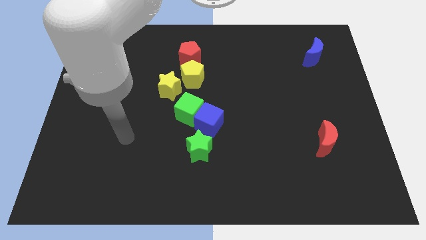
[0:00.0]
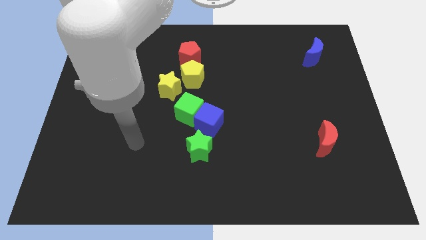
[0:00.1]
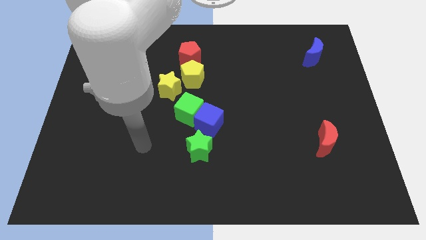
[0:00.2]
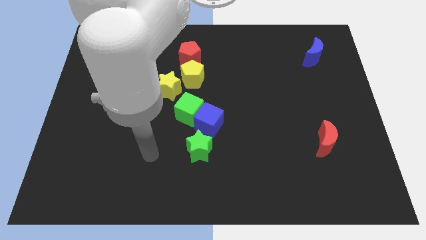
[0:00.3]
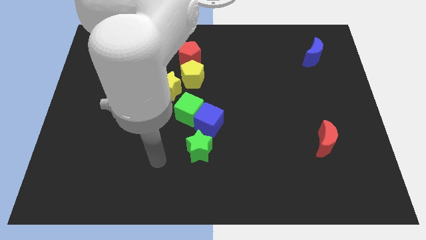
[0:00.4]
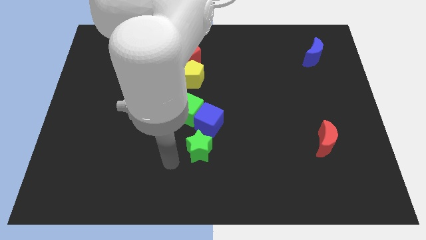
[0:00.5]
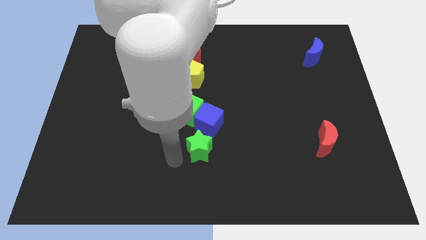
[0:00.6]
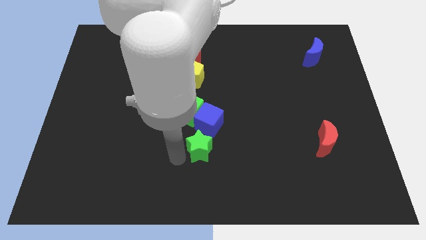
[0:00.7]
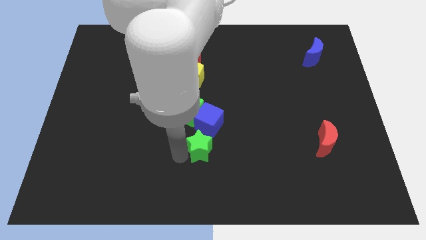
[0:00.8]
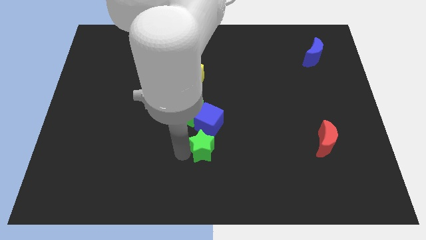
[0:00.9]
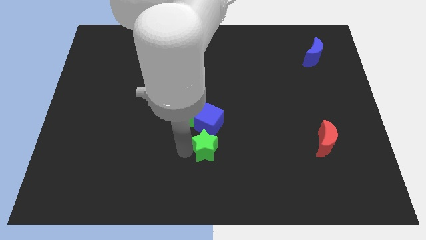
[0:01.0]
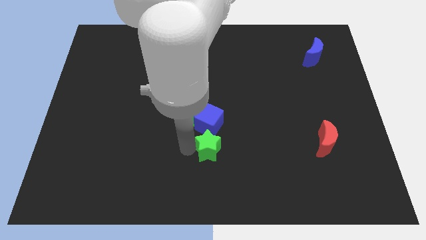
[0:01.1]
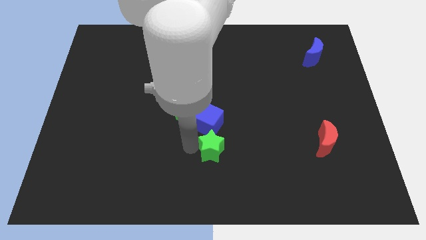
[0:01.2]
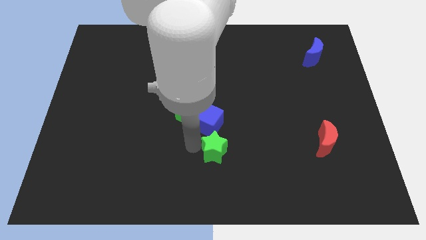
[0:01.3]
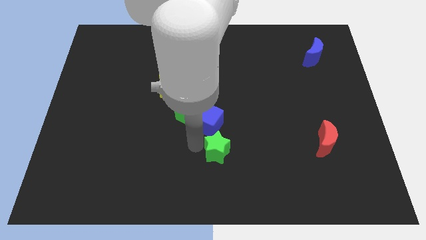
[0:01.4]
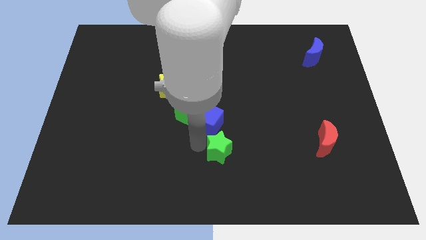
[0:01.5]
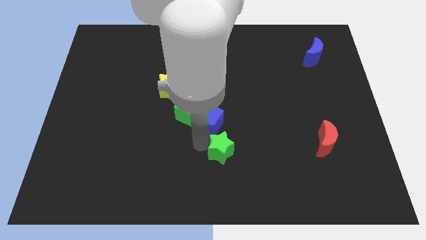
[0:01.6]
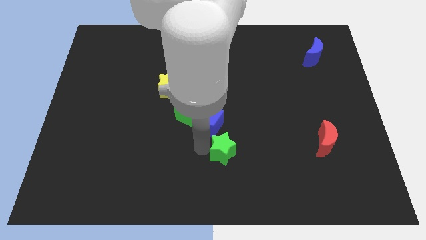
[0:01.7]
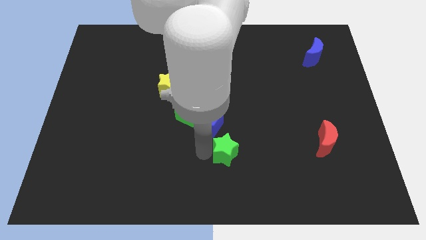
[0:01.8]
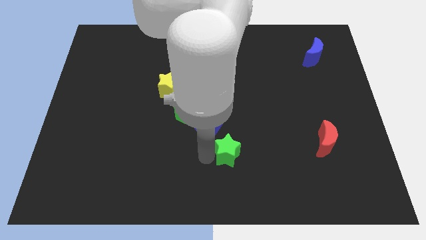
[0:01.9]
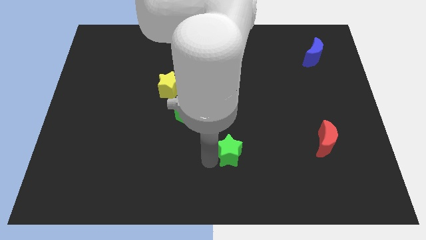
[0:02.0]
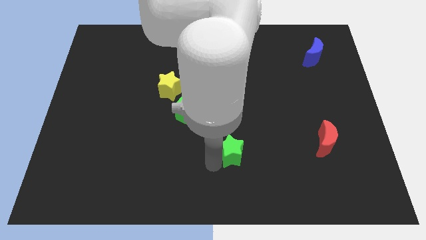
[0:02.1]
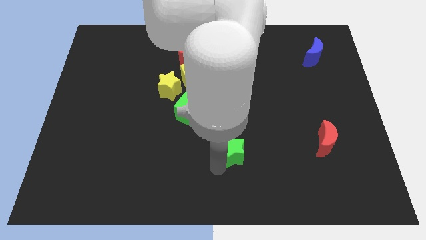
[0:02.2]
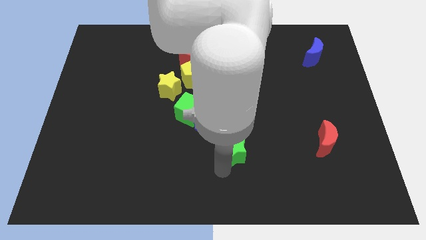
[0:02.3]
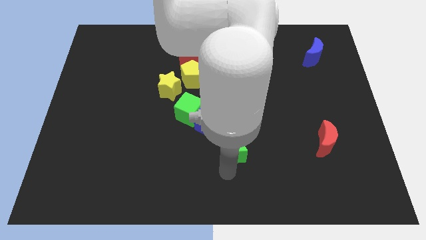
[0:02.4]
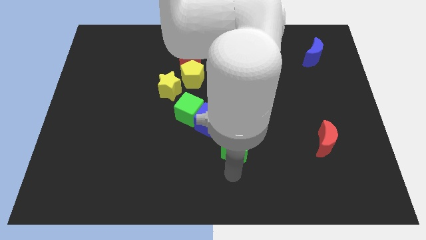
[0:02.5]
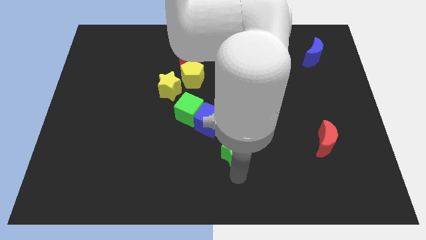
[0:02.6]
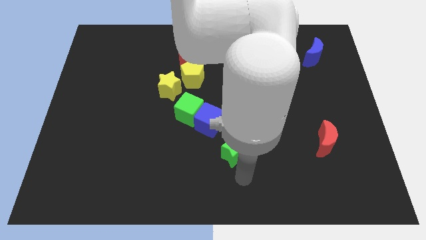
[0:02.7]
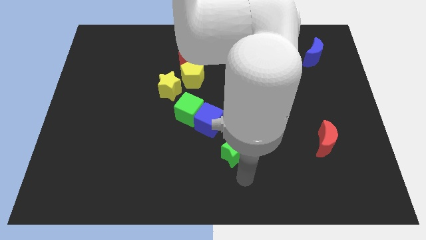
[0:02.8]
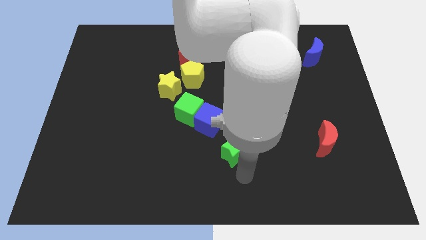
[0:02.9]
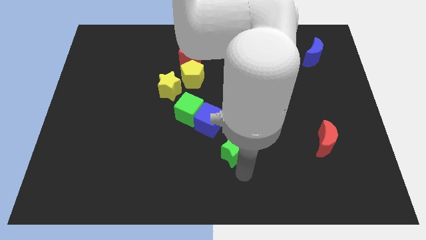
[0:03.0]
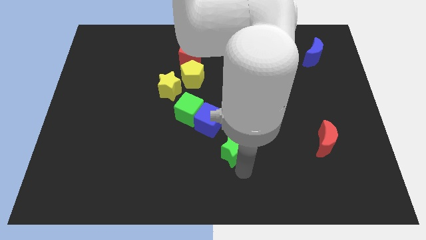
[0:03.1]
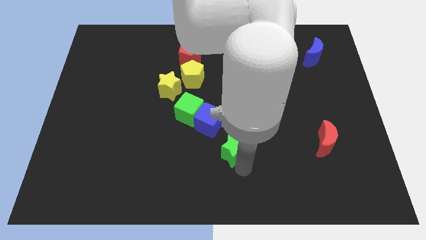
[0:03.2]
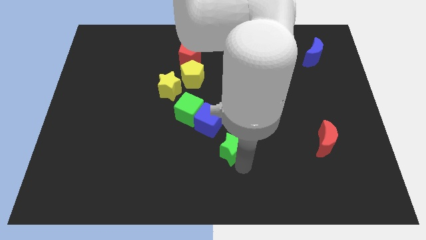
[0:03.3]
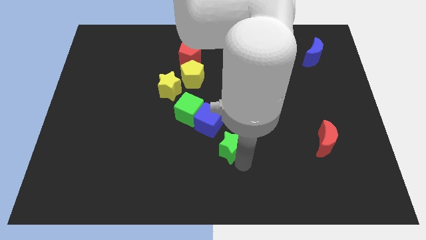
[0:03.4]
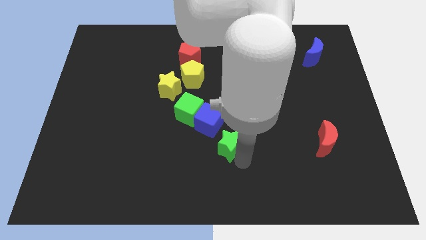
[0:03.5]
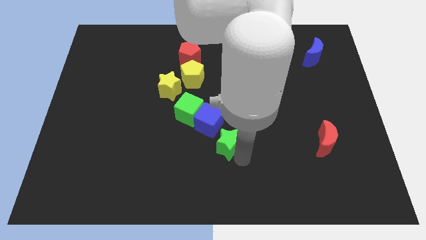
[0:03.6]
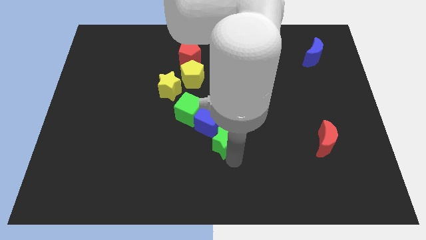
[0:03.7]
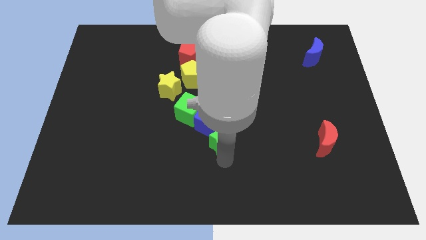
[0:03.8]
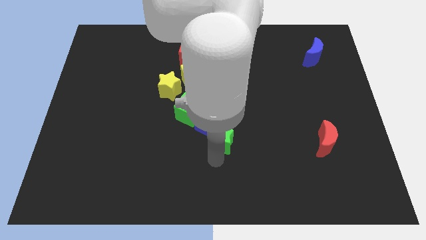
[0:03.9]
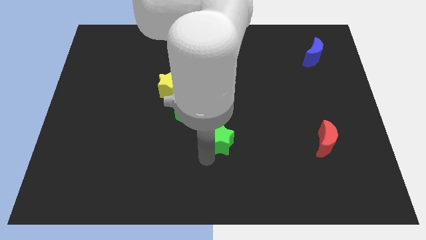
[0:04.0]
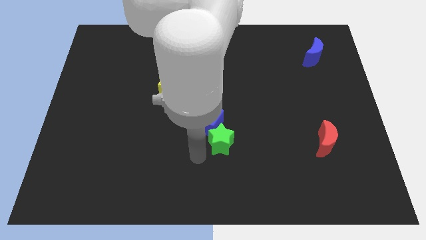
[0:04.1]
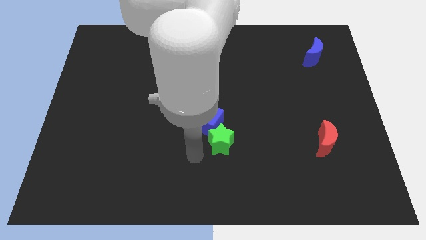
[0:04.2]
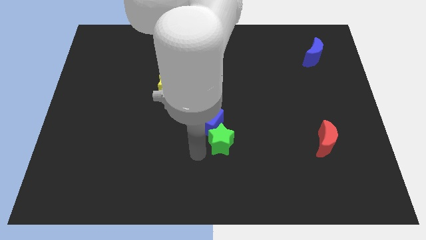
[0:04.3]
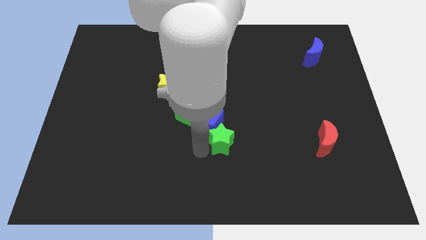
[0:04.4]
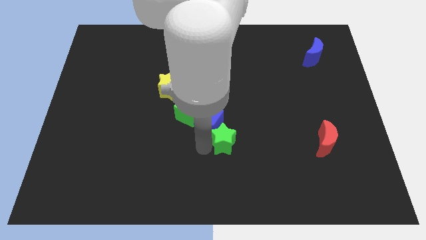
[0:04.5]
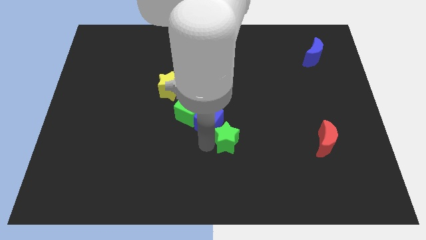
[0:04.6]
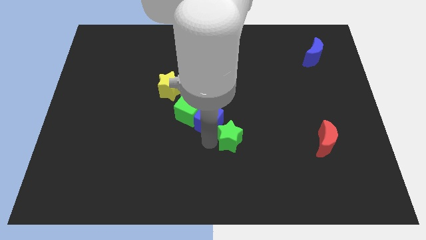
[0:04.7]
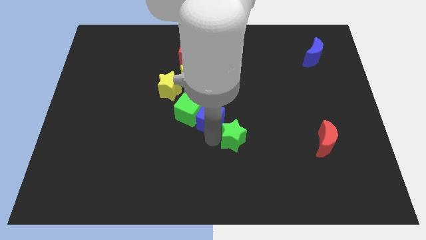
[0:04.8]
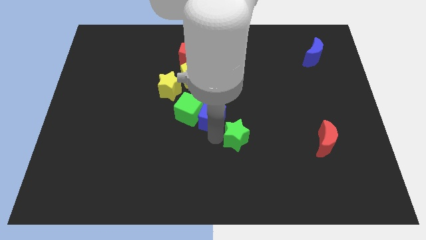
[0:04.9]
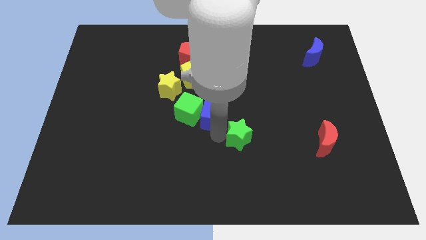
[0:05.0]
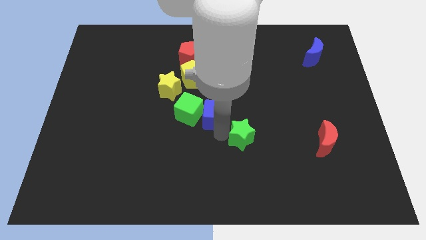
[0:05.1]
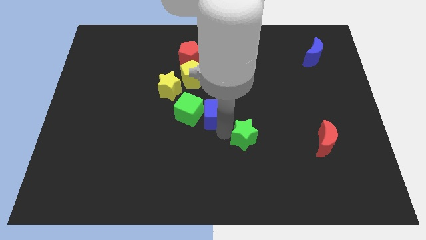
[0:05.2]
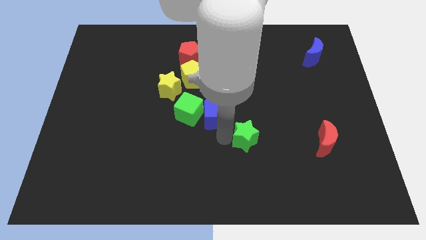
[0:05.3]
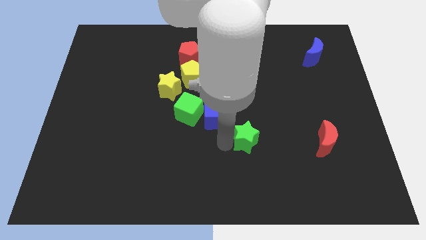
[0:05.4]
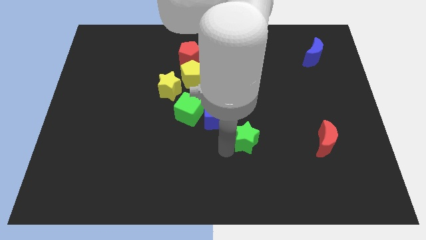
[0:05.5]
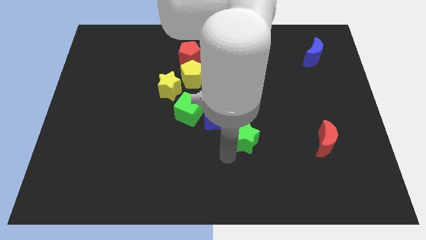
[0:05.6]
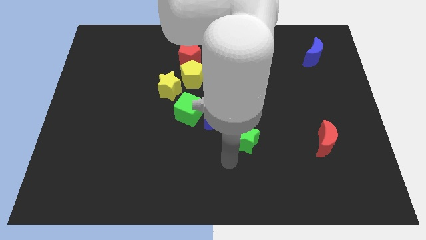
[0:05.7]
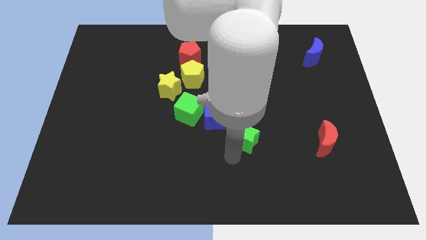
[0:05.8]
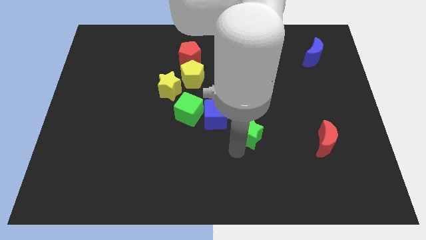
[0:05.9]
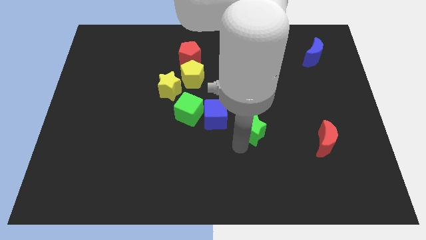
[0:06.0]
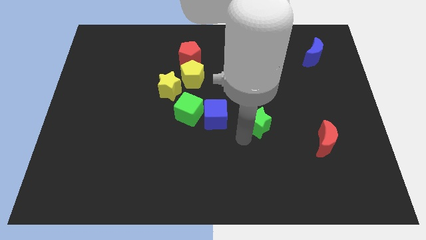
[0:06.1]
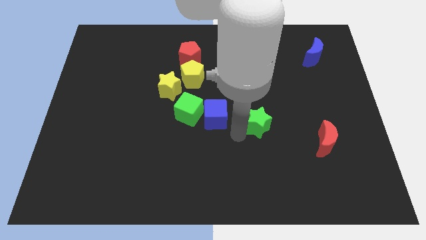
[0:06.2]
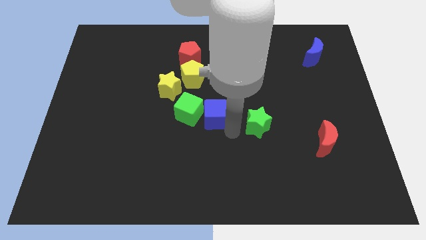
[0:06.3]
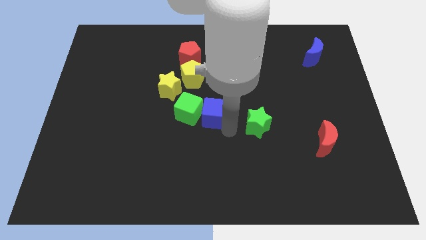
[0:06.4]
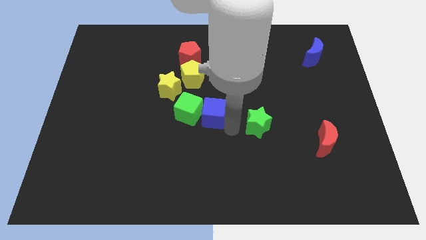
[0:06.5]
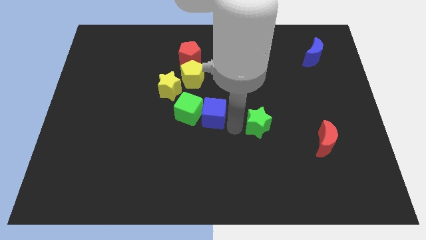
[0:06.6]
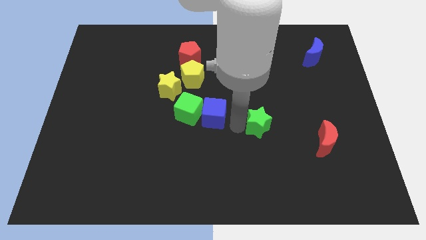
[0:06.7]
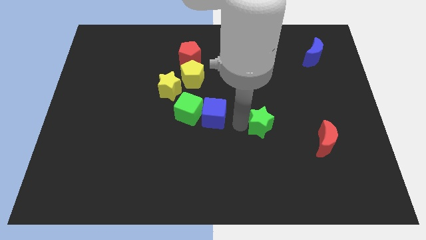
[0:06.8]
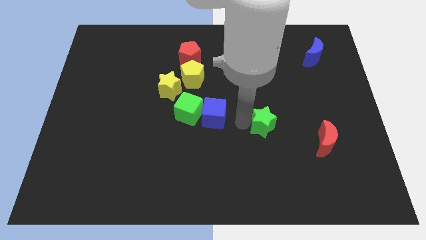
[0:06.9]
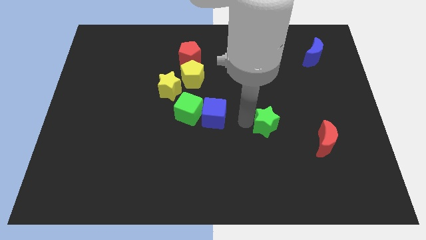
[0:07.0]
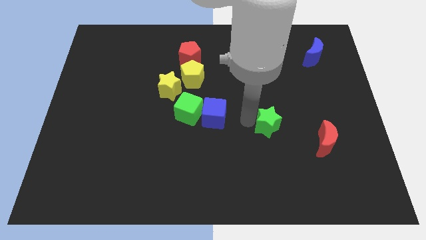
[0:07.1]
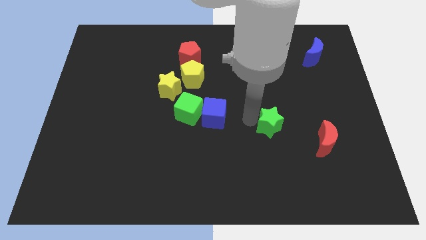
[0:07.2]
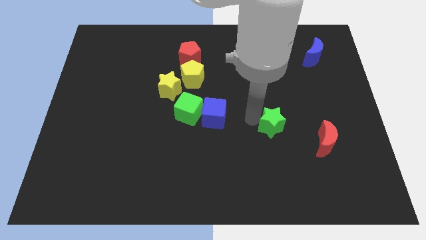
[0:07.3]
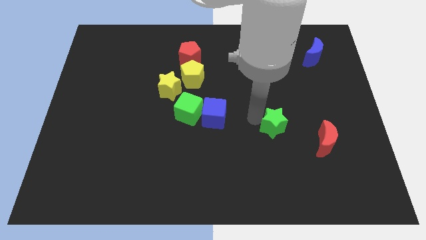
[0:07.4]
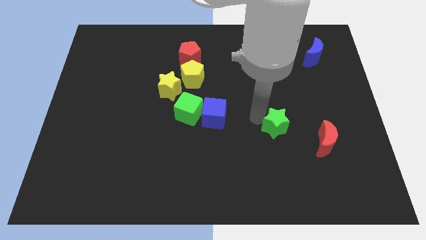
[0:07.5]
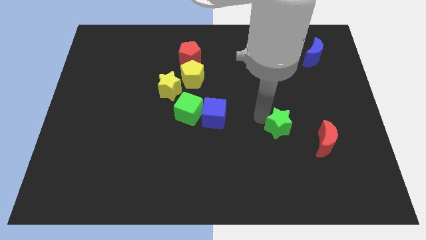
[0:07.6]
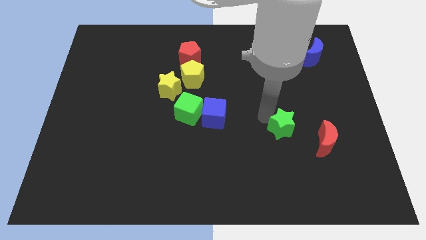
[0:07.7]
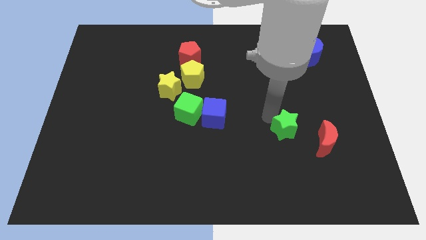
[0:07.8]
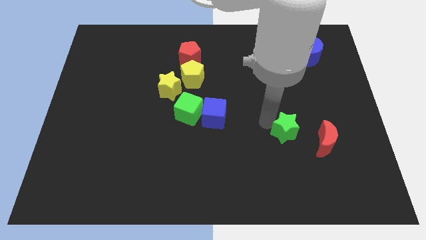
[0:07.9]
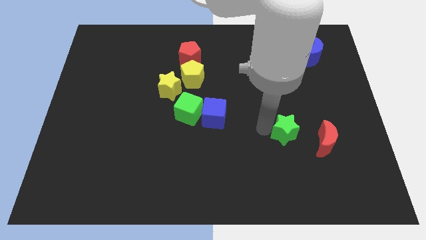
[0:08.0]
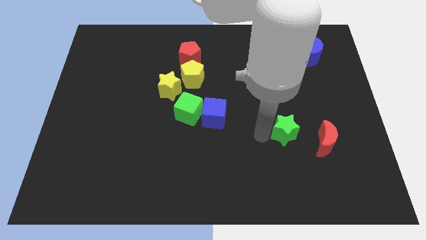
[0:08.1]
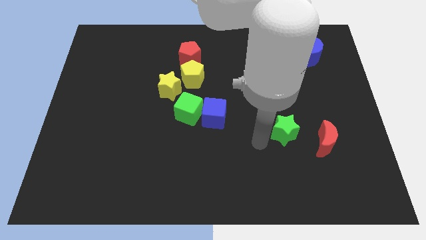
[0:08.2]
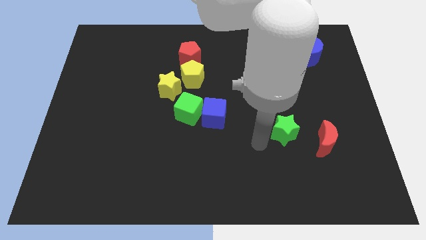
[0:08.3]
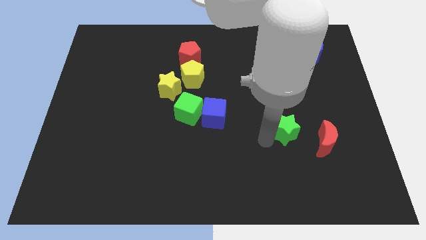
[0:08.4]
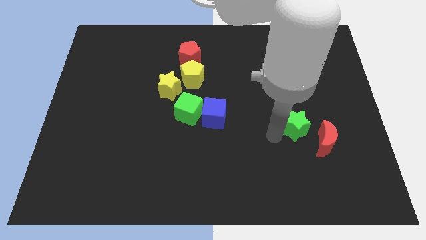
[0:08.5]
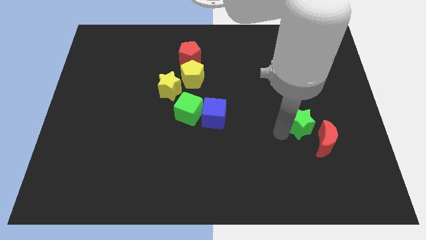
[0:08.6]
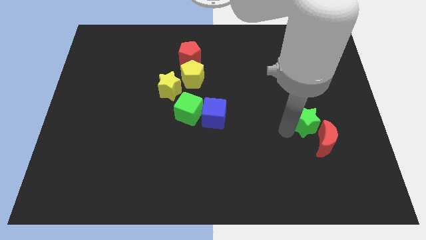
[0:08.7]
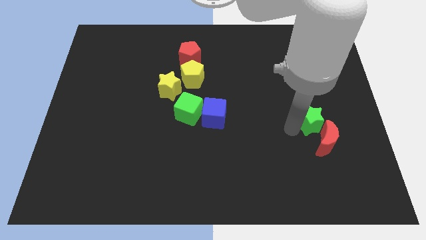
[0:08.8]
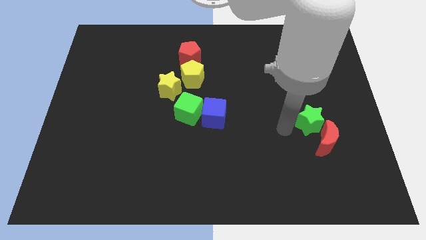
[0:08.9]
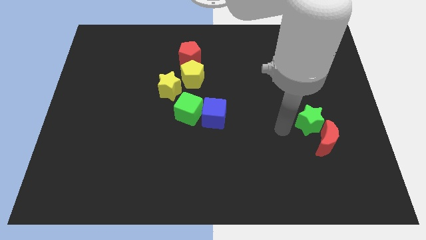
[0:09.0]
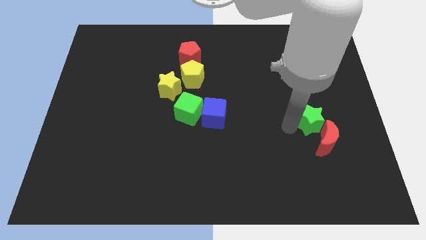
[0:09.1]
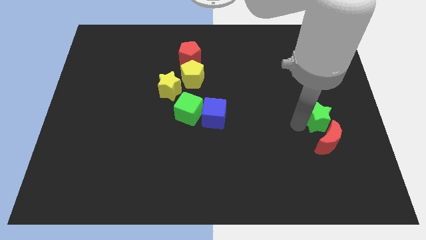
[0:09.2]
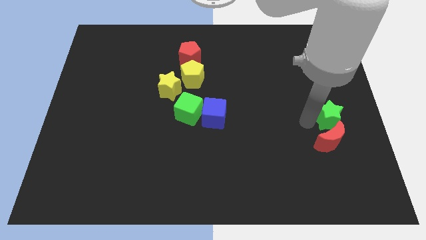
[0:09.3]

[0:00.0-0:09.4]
put the green star to the right side
